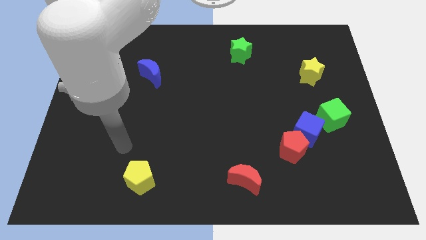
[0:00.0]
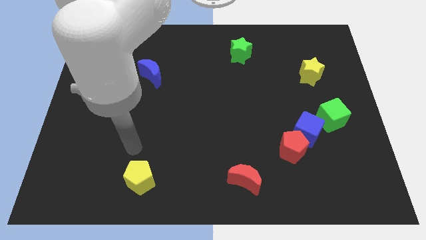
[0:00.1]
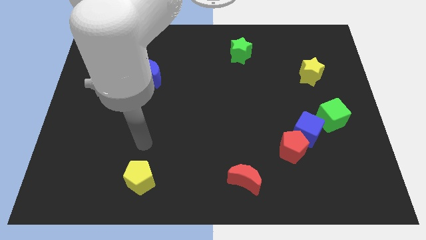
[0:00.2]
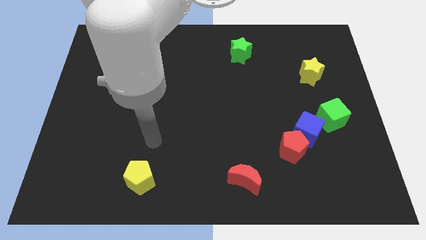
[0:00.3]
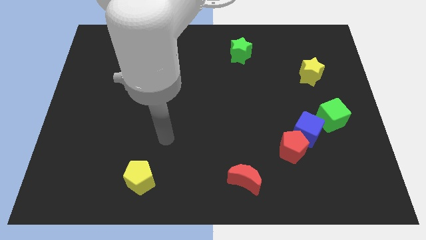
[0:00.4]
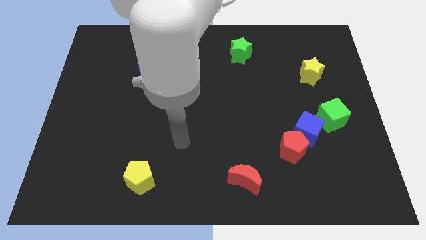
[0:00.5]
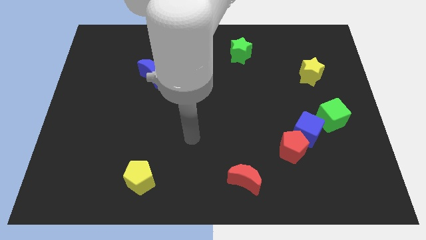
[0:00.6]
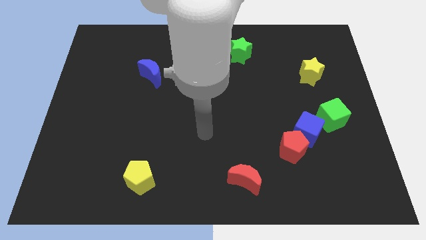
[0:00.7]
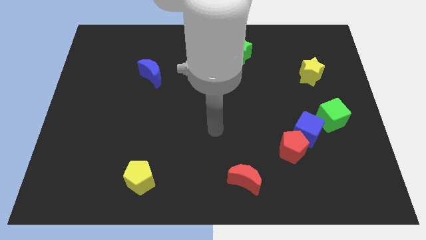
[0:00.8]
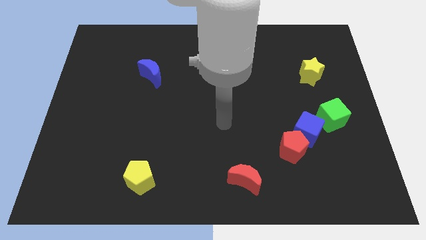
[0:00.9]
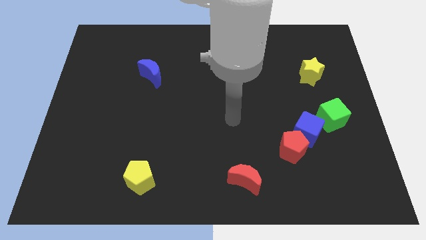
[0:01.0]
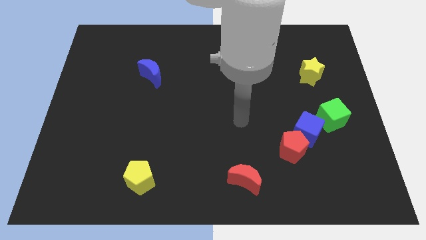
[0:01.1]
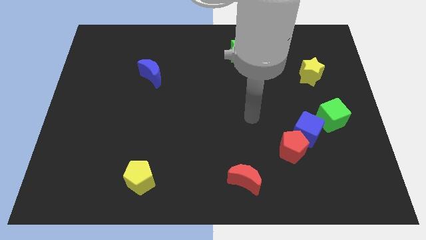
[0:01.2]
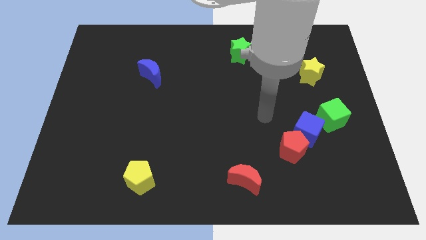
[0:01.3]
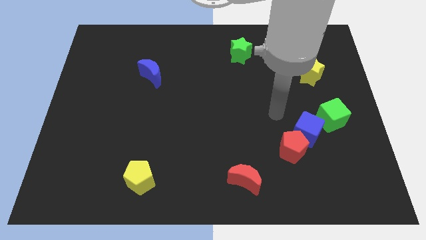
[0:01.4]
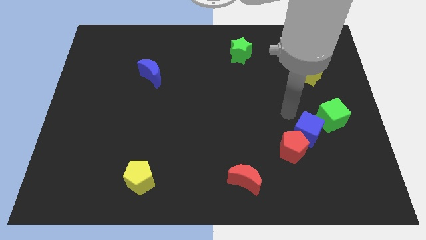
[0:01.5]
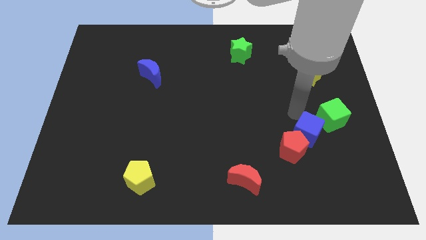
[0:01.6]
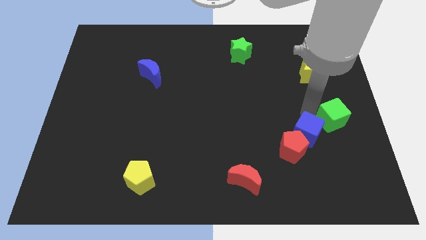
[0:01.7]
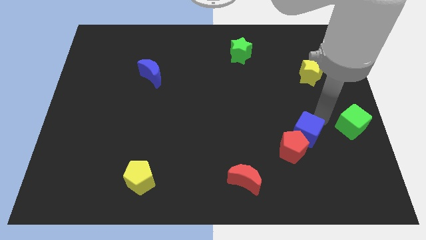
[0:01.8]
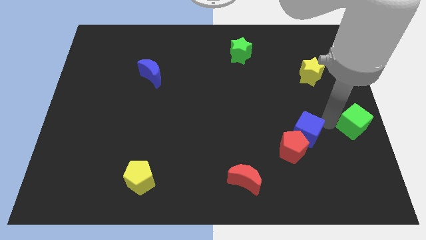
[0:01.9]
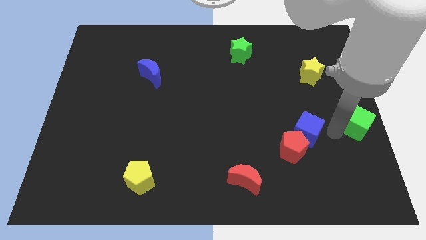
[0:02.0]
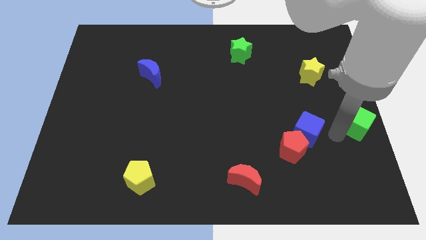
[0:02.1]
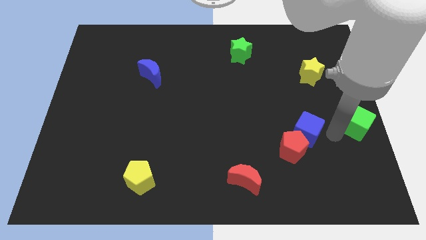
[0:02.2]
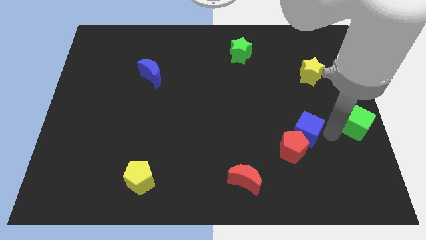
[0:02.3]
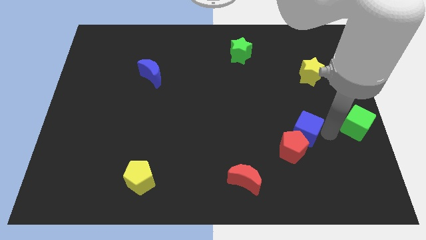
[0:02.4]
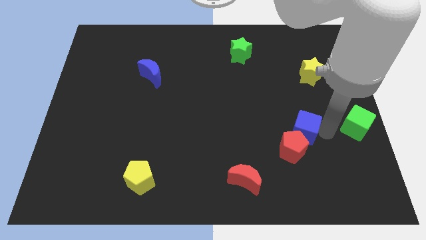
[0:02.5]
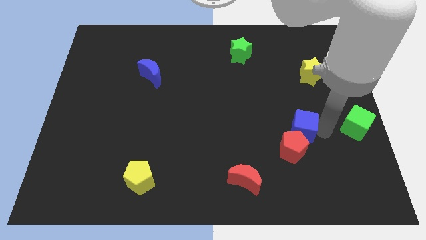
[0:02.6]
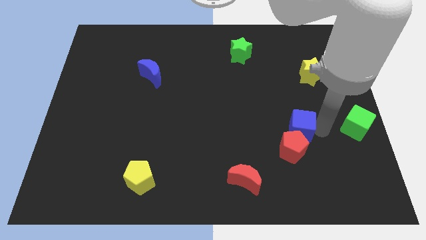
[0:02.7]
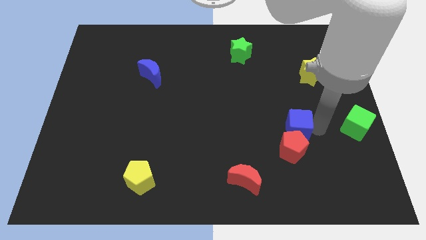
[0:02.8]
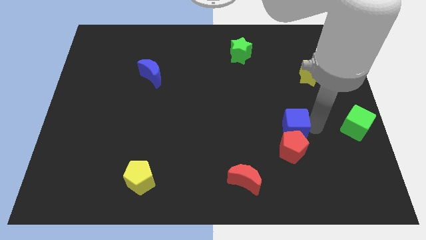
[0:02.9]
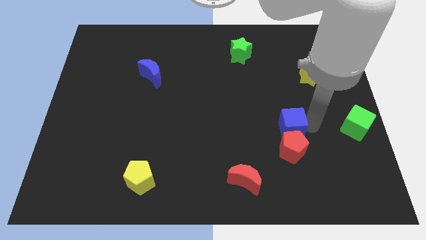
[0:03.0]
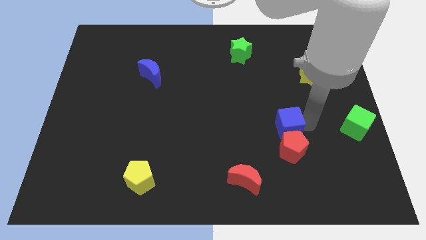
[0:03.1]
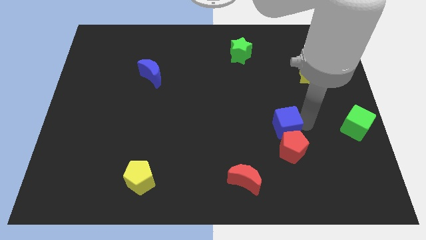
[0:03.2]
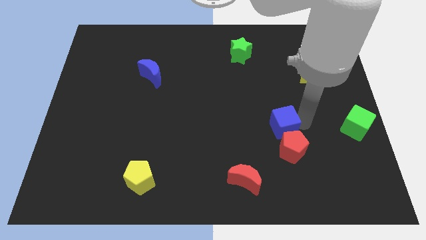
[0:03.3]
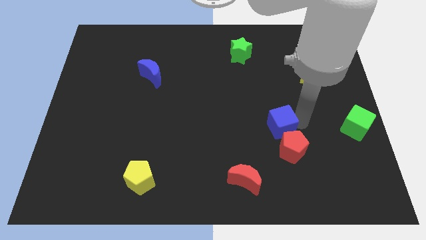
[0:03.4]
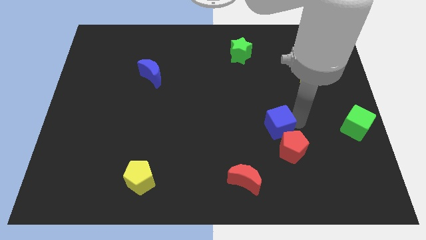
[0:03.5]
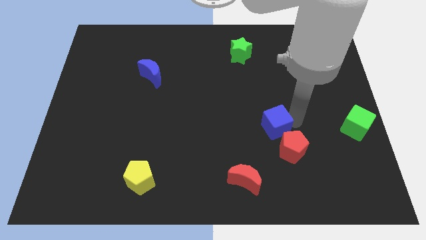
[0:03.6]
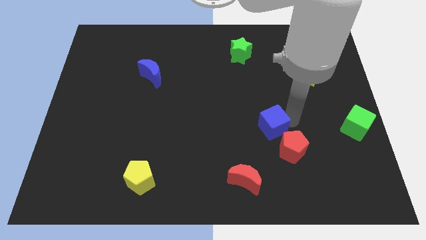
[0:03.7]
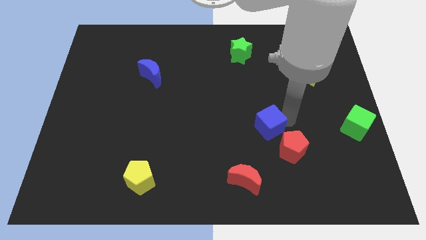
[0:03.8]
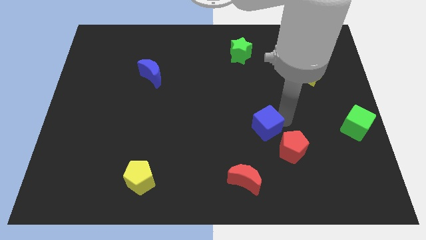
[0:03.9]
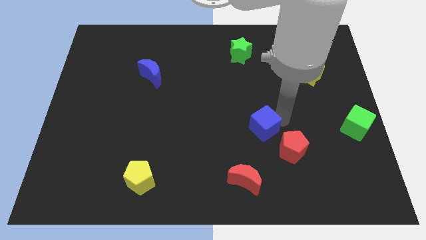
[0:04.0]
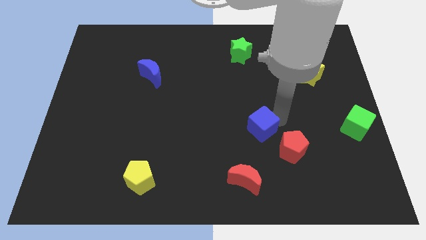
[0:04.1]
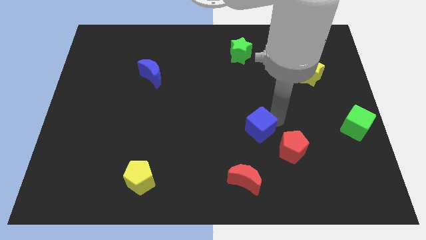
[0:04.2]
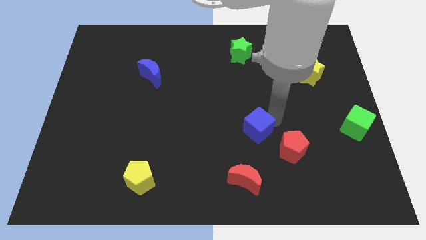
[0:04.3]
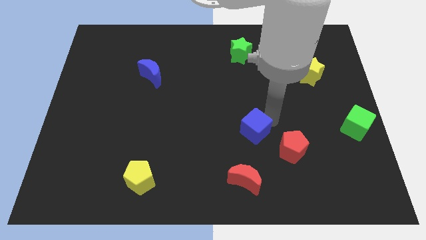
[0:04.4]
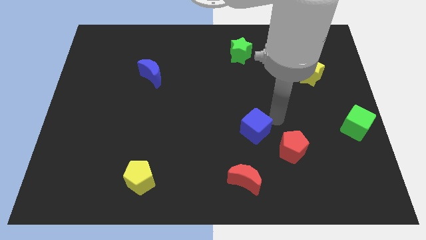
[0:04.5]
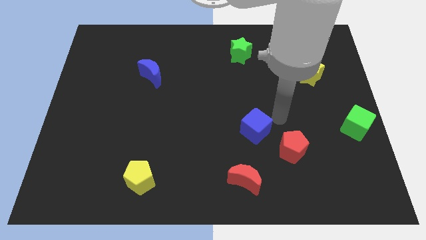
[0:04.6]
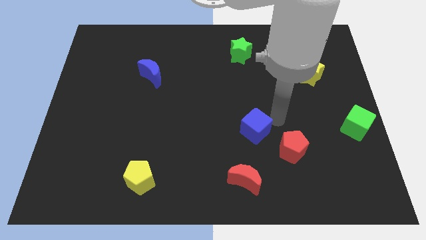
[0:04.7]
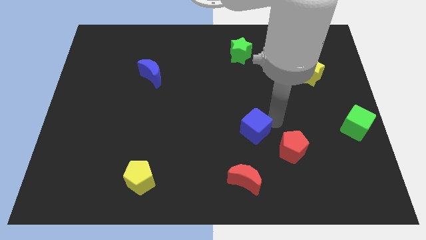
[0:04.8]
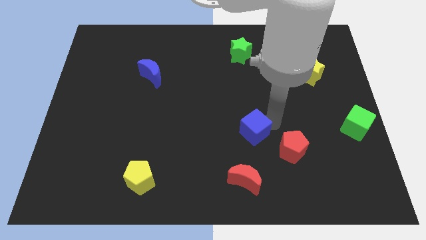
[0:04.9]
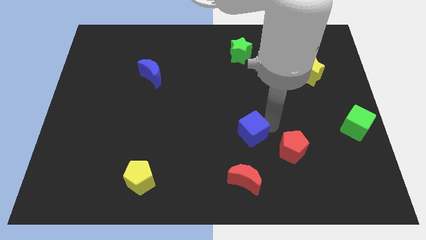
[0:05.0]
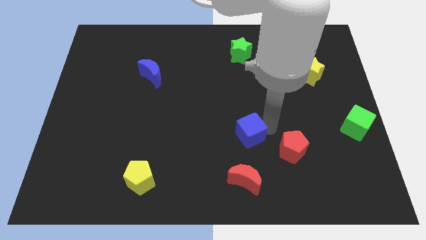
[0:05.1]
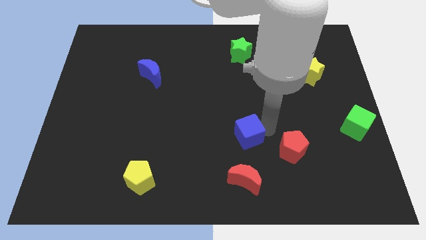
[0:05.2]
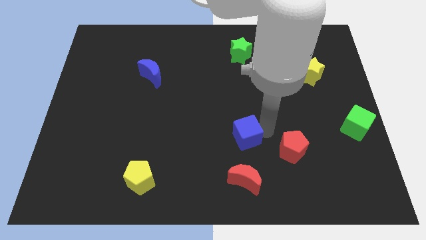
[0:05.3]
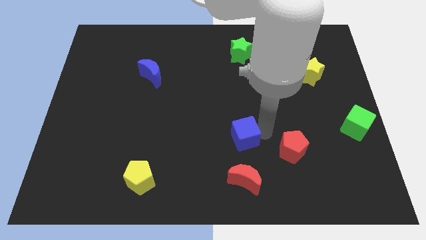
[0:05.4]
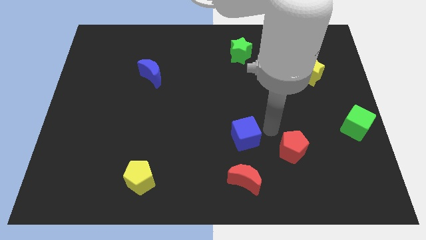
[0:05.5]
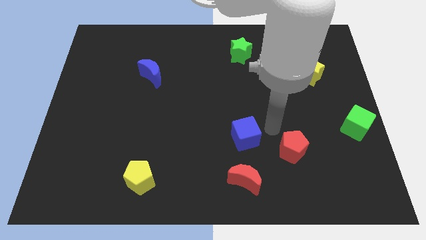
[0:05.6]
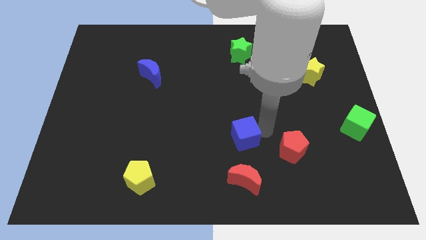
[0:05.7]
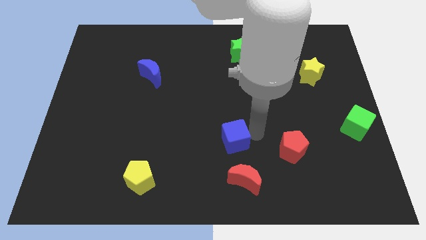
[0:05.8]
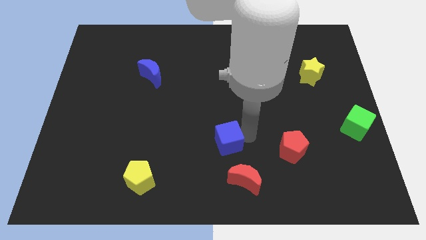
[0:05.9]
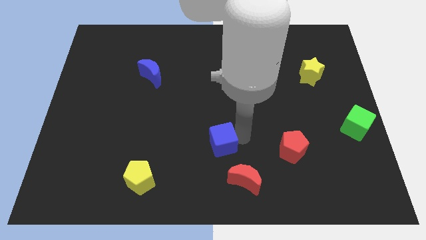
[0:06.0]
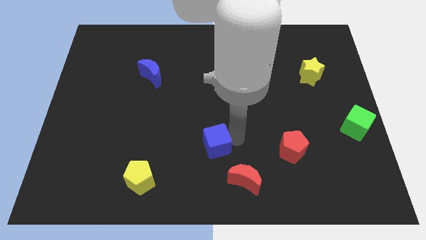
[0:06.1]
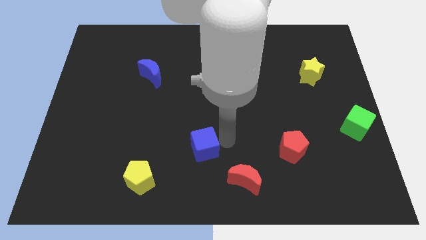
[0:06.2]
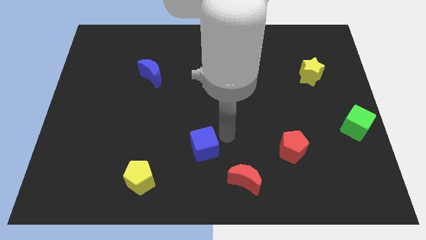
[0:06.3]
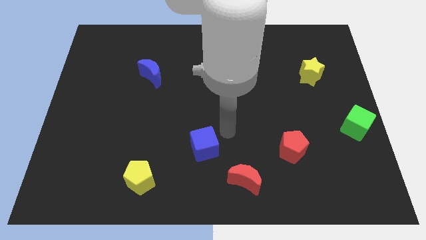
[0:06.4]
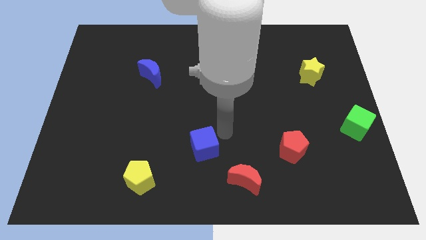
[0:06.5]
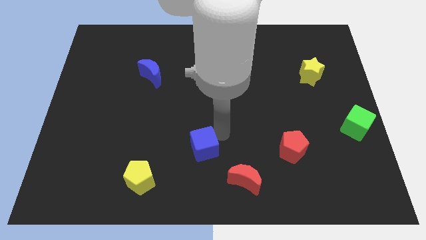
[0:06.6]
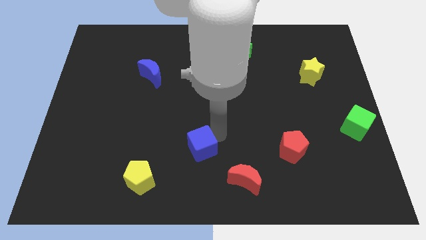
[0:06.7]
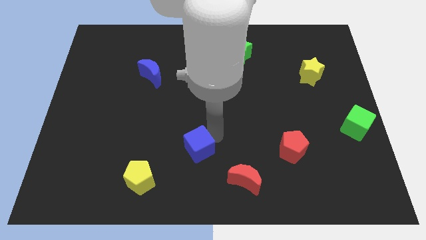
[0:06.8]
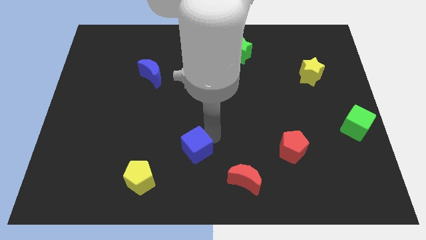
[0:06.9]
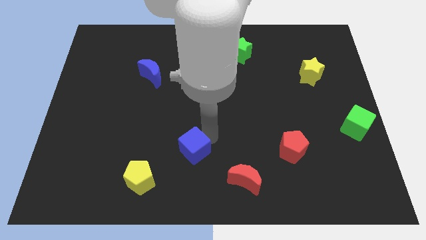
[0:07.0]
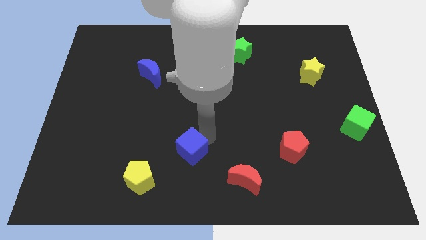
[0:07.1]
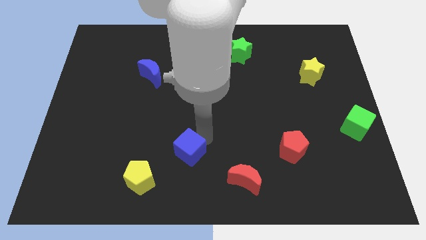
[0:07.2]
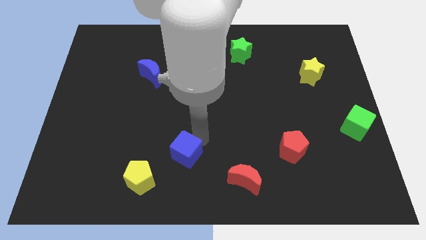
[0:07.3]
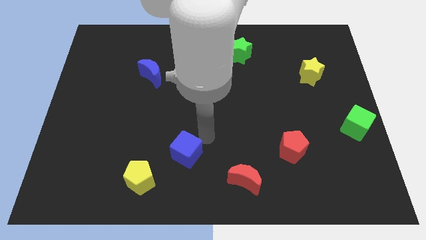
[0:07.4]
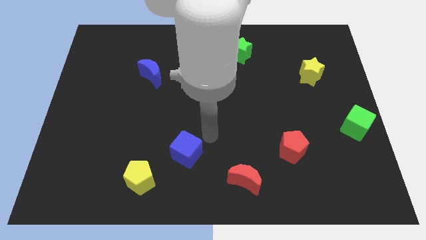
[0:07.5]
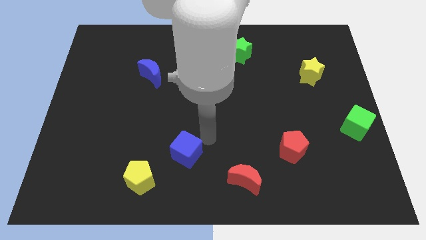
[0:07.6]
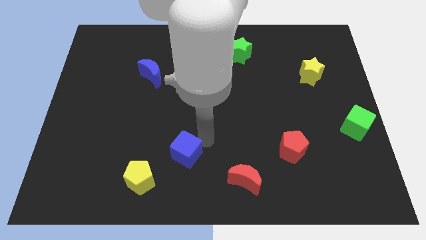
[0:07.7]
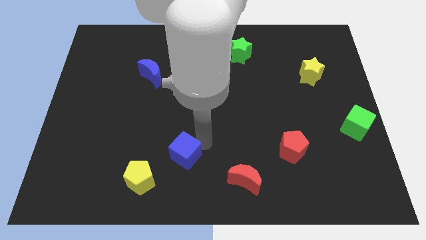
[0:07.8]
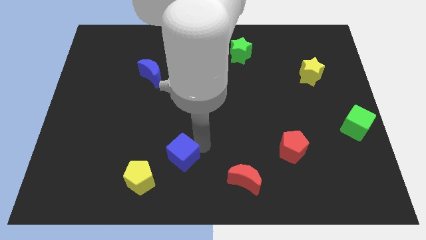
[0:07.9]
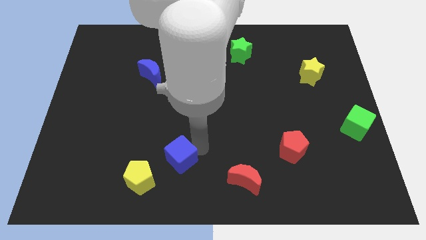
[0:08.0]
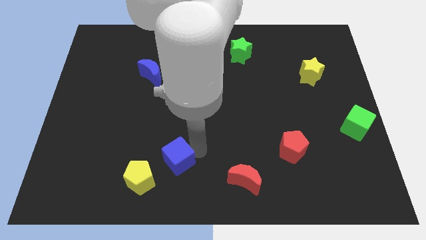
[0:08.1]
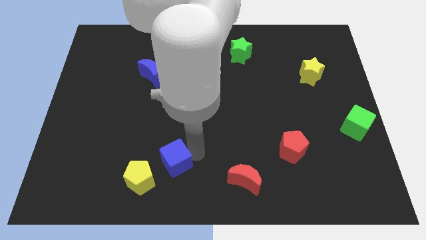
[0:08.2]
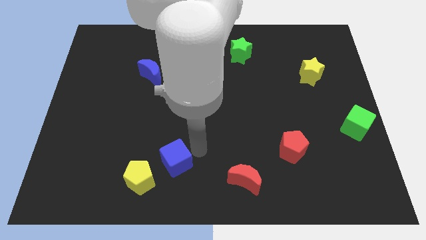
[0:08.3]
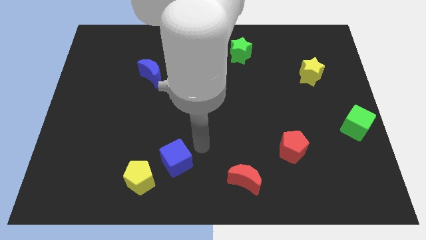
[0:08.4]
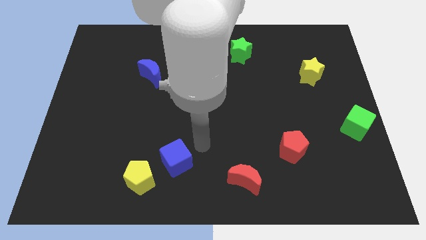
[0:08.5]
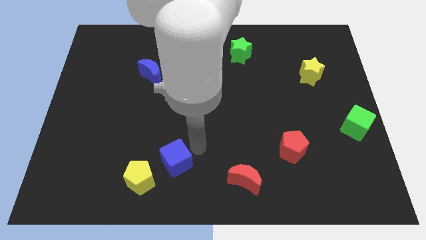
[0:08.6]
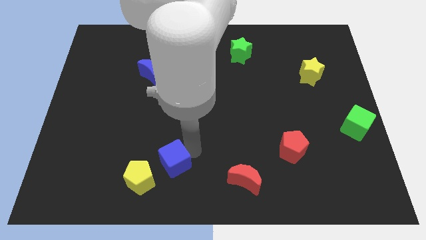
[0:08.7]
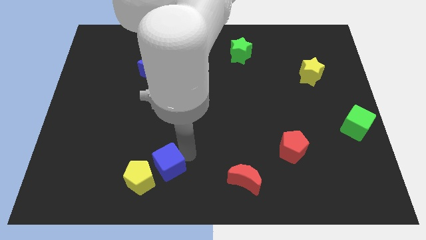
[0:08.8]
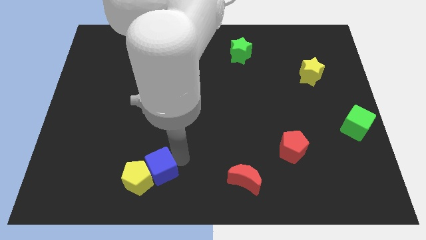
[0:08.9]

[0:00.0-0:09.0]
put the blue cube towards the yellow pentagon
